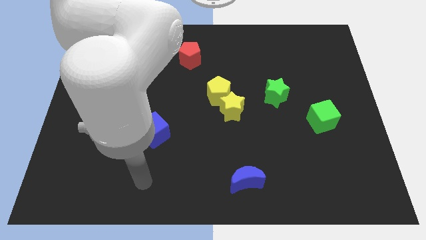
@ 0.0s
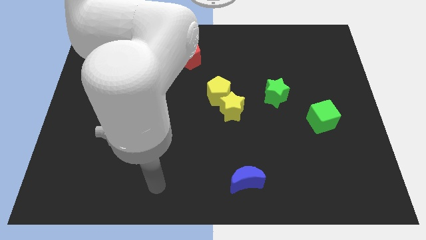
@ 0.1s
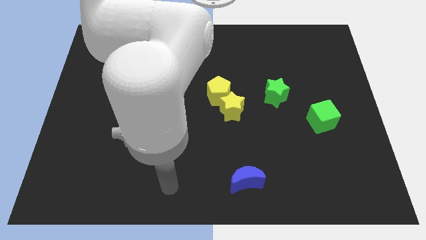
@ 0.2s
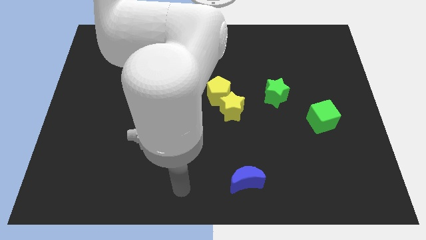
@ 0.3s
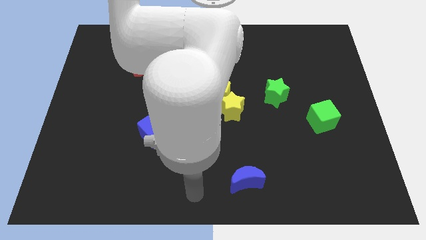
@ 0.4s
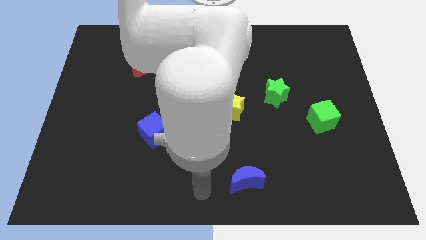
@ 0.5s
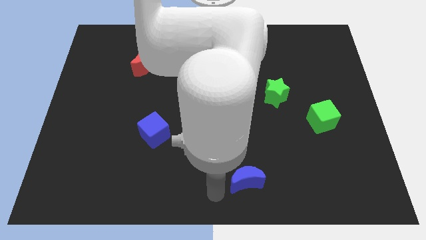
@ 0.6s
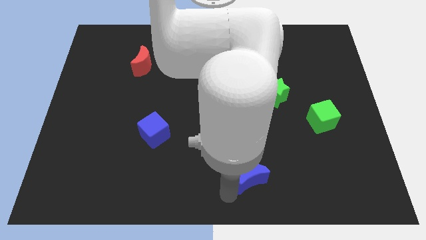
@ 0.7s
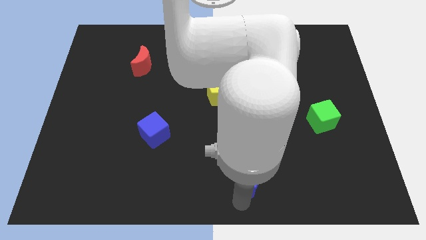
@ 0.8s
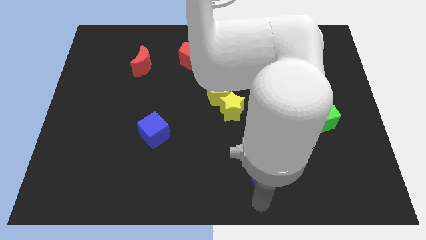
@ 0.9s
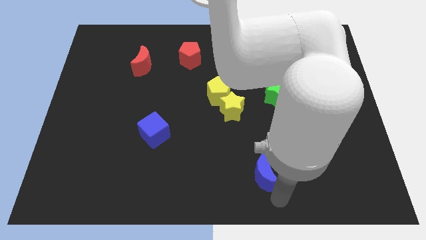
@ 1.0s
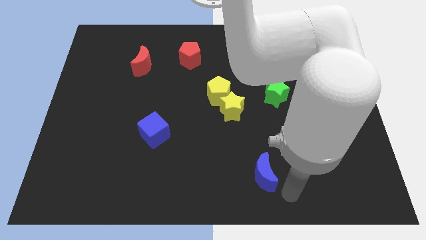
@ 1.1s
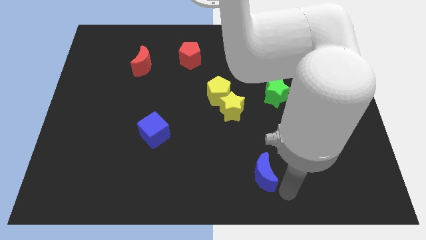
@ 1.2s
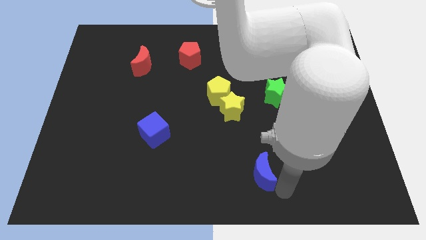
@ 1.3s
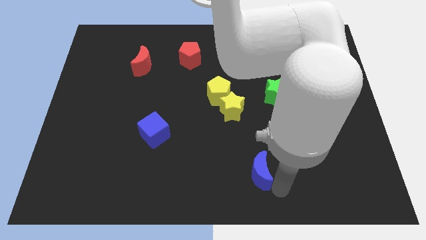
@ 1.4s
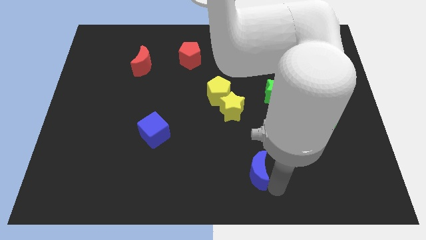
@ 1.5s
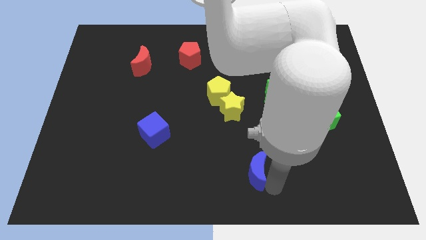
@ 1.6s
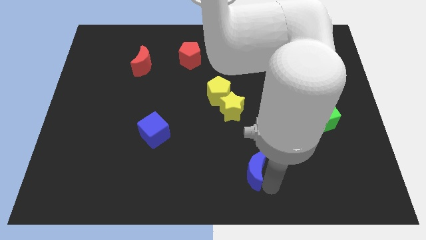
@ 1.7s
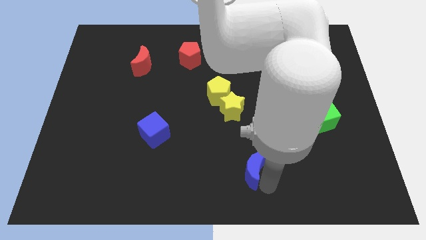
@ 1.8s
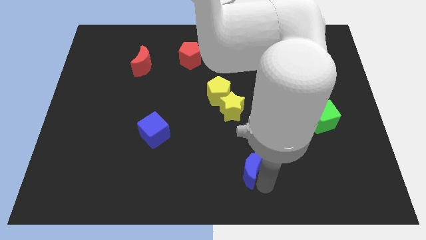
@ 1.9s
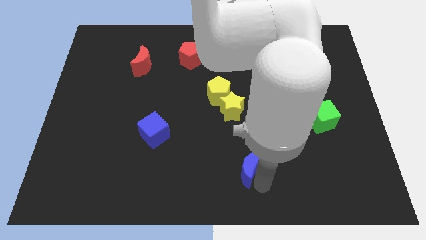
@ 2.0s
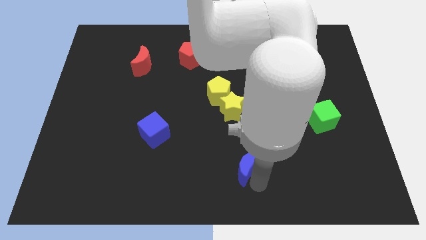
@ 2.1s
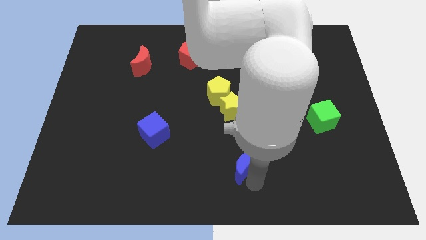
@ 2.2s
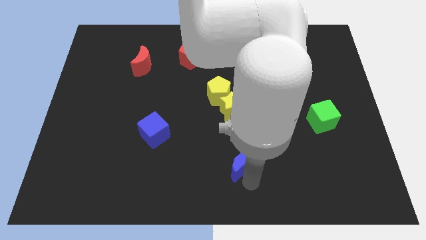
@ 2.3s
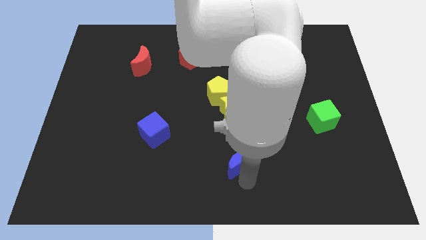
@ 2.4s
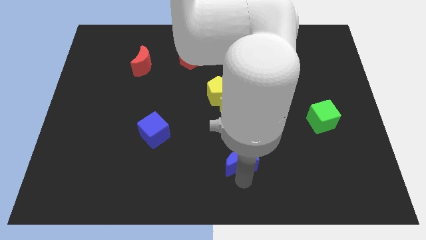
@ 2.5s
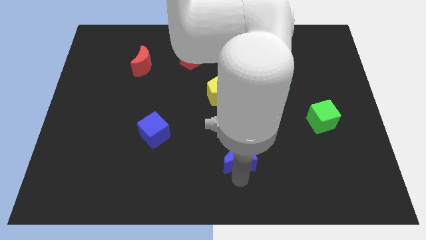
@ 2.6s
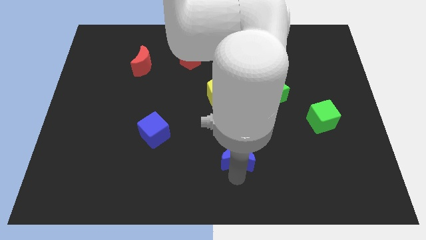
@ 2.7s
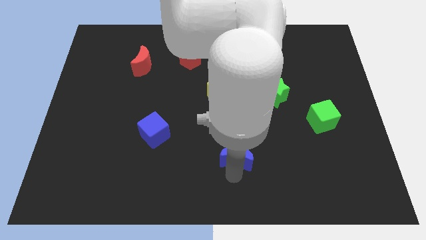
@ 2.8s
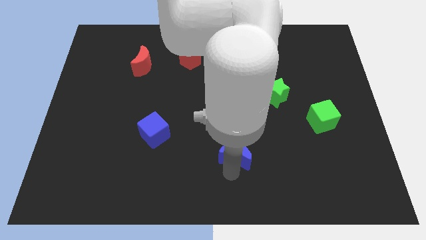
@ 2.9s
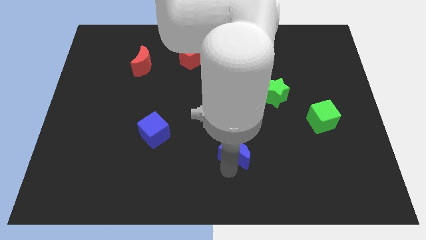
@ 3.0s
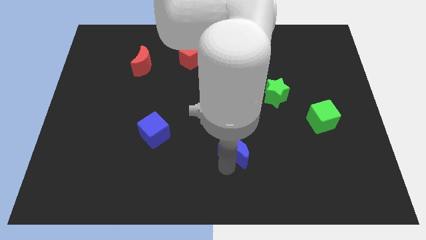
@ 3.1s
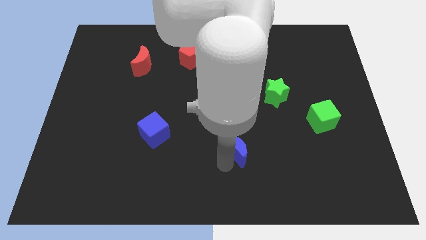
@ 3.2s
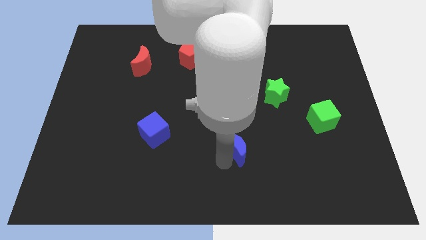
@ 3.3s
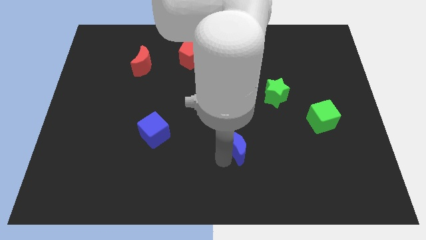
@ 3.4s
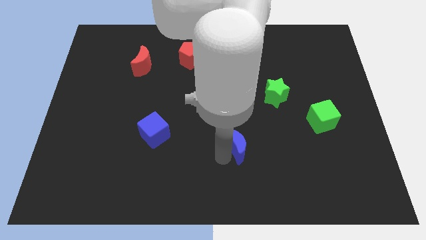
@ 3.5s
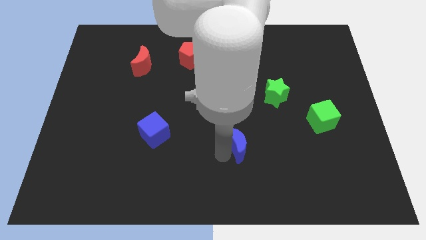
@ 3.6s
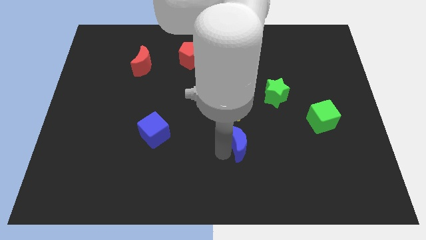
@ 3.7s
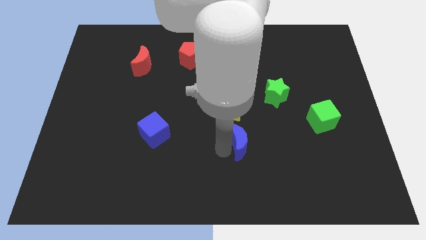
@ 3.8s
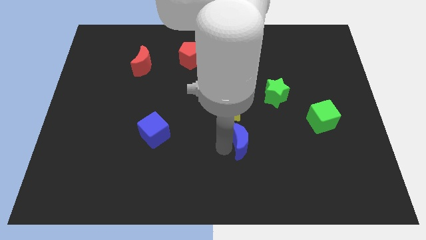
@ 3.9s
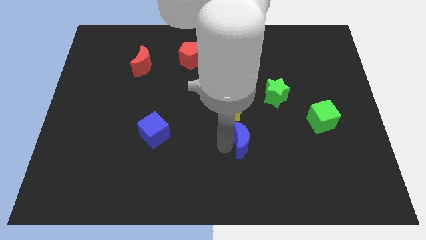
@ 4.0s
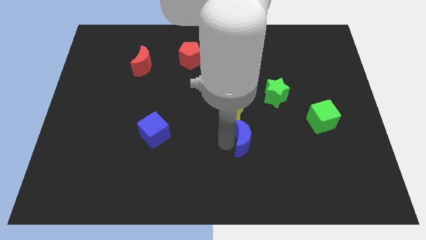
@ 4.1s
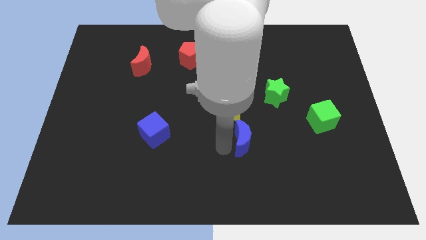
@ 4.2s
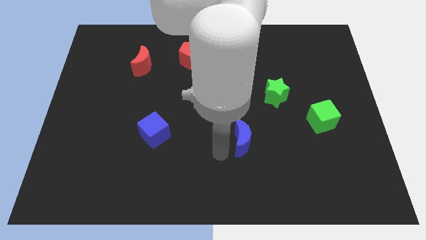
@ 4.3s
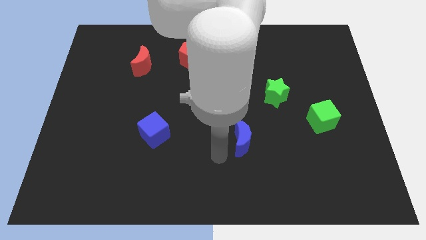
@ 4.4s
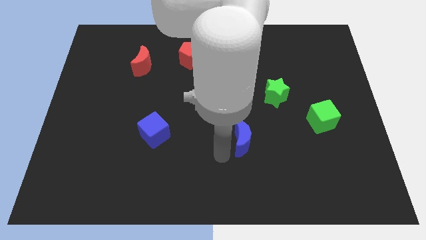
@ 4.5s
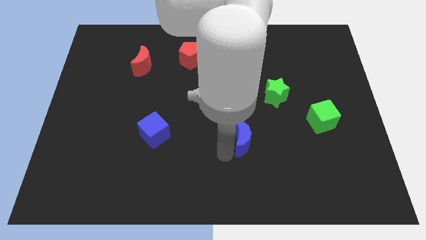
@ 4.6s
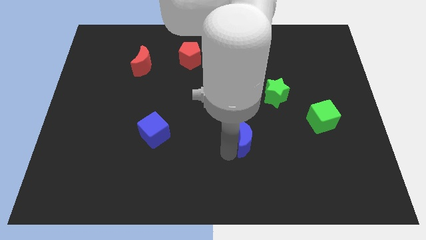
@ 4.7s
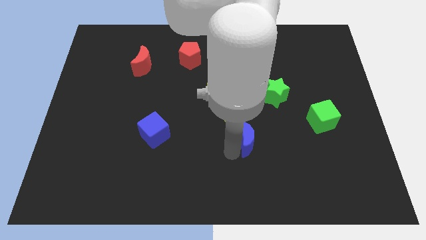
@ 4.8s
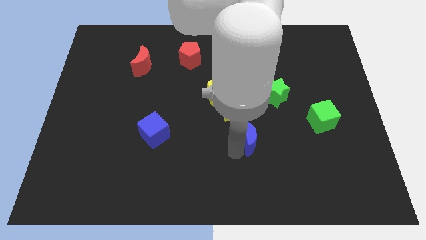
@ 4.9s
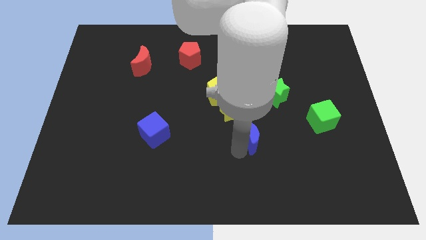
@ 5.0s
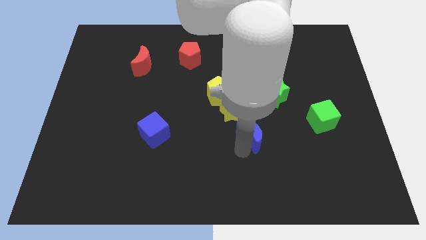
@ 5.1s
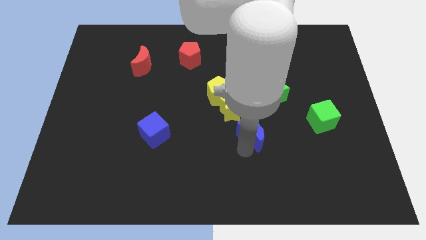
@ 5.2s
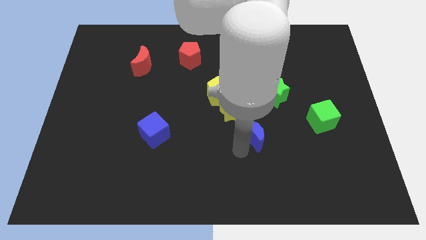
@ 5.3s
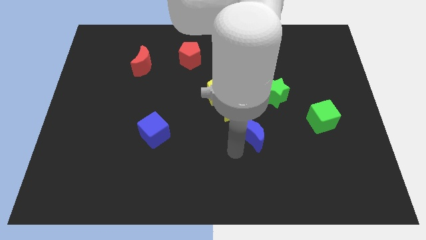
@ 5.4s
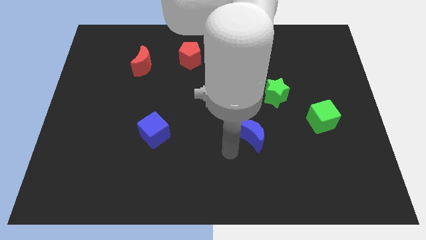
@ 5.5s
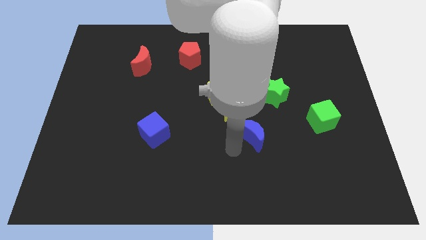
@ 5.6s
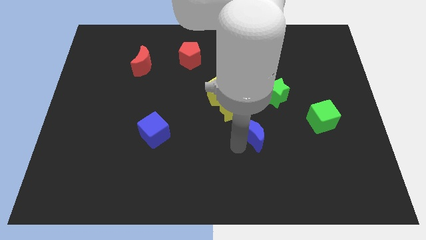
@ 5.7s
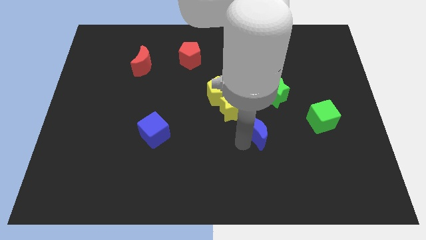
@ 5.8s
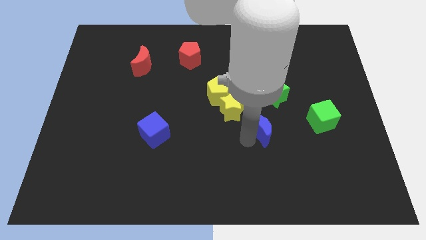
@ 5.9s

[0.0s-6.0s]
slide the blue moon to the bottom left side of the green star

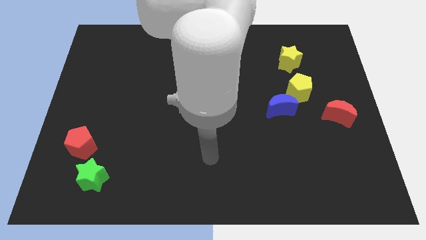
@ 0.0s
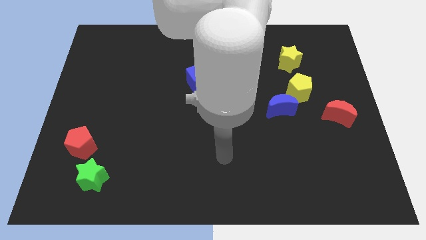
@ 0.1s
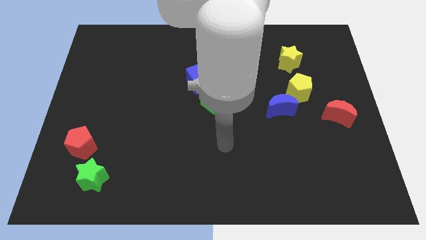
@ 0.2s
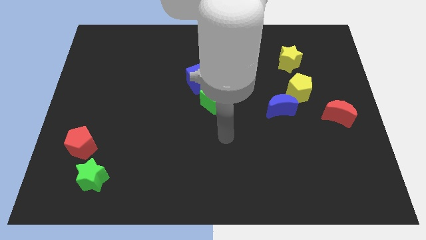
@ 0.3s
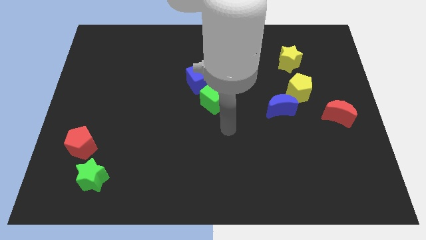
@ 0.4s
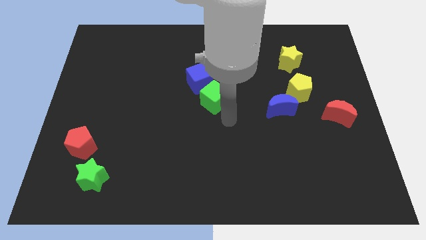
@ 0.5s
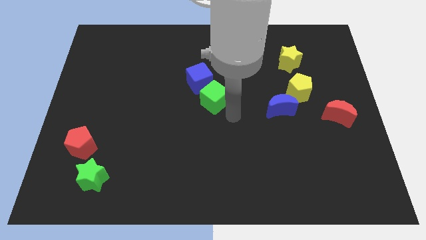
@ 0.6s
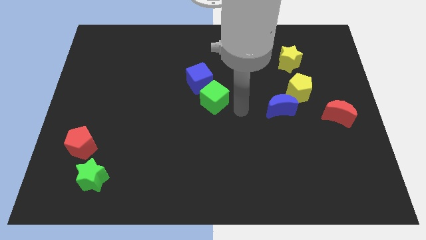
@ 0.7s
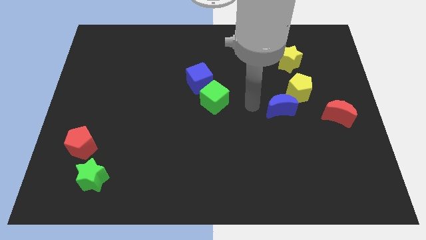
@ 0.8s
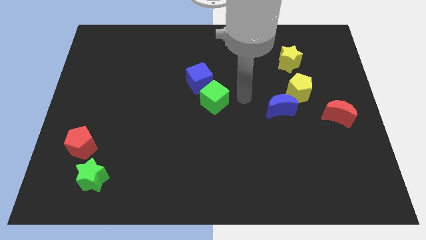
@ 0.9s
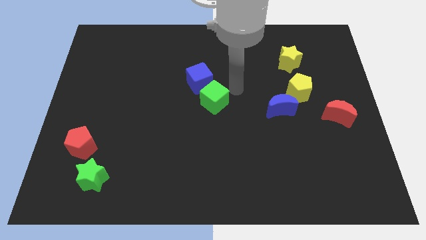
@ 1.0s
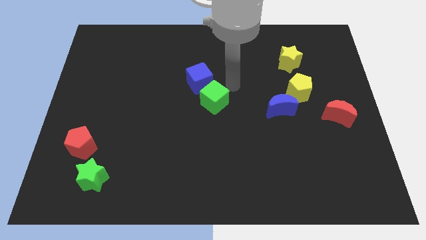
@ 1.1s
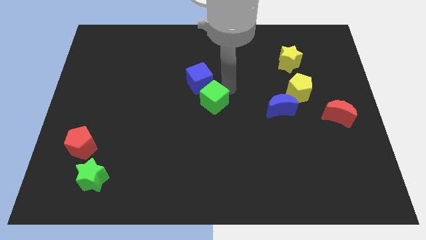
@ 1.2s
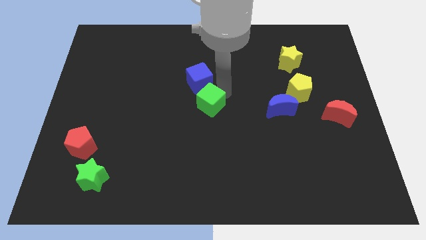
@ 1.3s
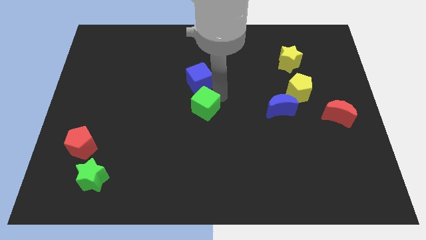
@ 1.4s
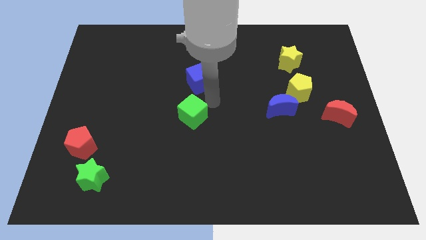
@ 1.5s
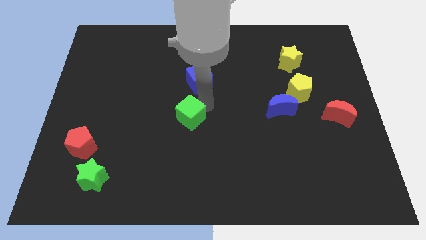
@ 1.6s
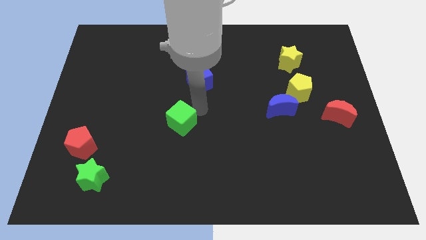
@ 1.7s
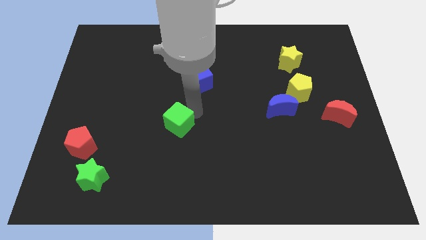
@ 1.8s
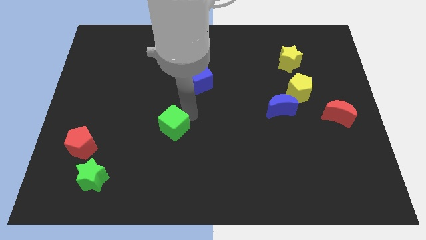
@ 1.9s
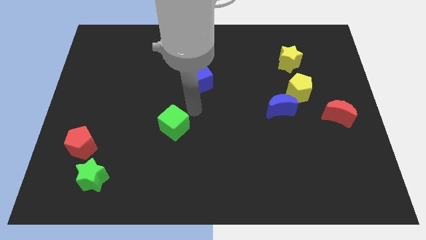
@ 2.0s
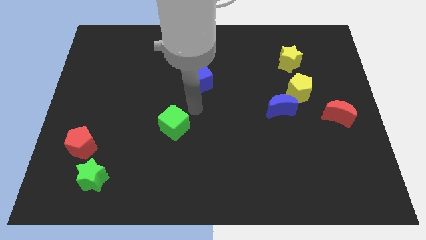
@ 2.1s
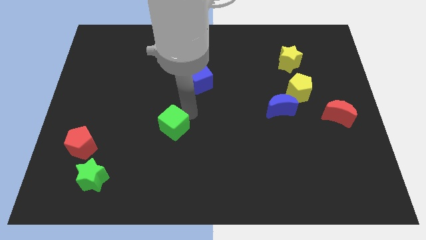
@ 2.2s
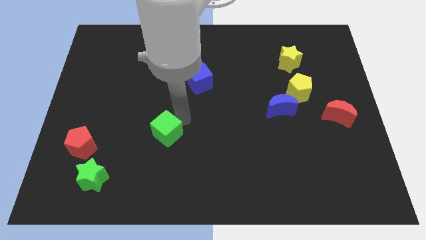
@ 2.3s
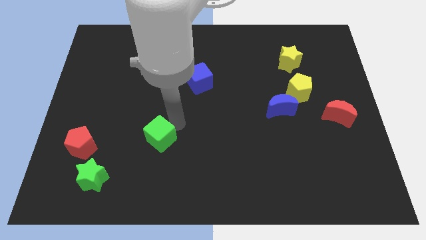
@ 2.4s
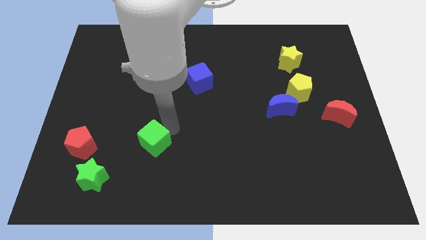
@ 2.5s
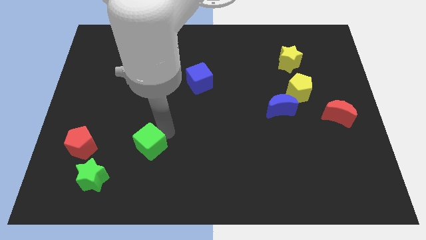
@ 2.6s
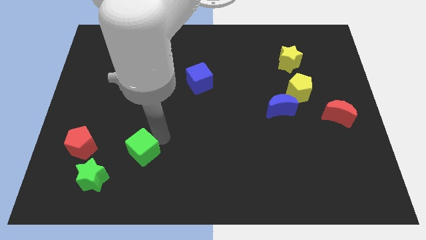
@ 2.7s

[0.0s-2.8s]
push the green cube to the top right of the green star
